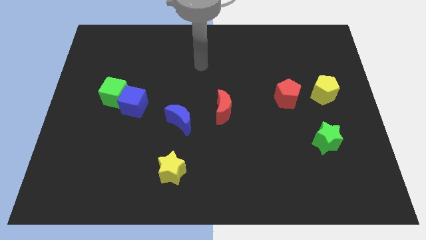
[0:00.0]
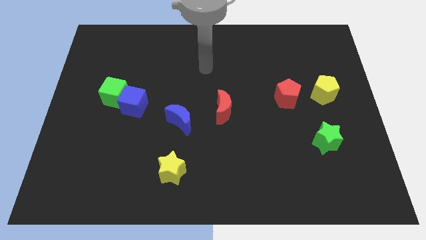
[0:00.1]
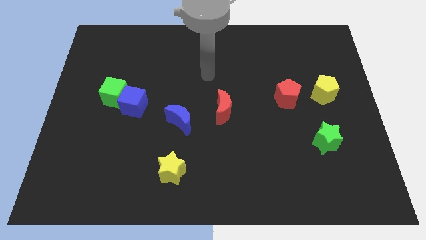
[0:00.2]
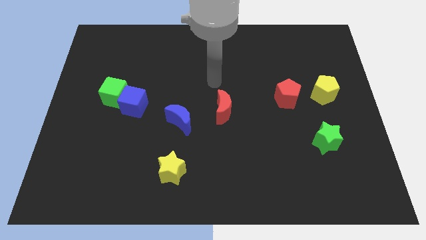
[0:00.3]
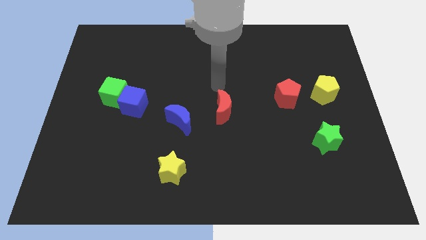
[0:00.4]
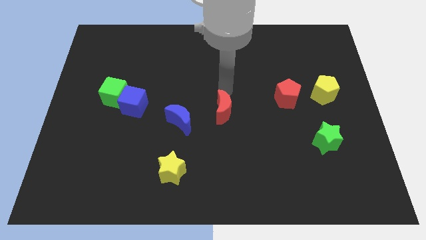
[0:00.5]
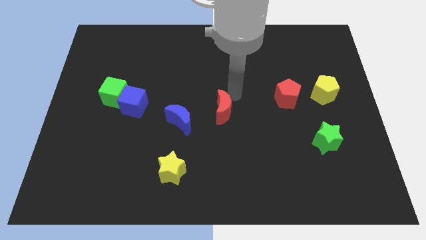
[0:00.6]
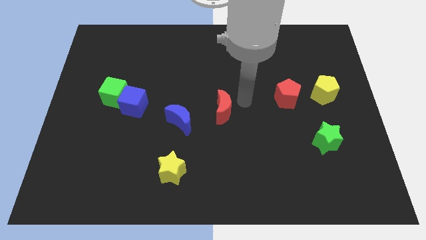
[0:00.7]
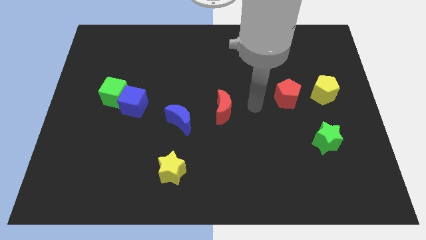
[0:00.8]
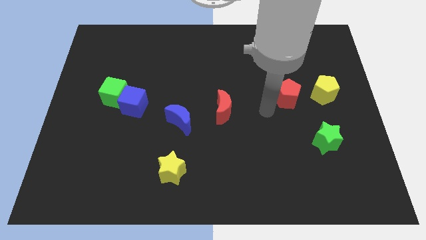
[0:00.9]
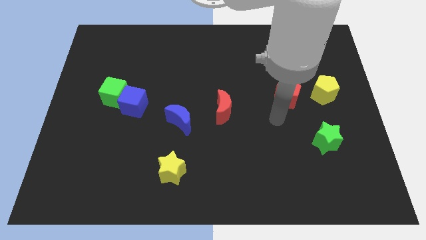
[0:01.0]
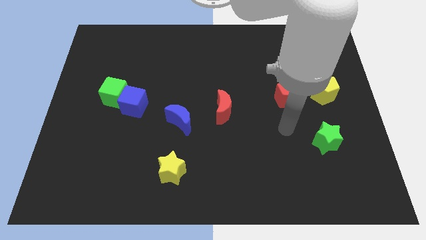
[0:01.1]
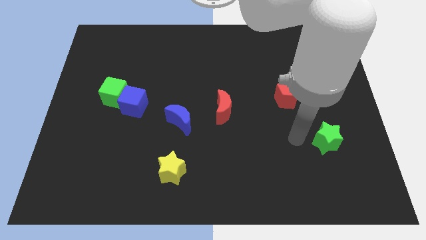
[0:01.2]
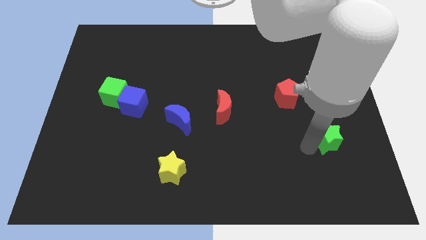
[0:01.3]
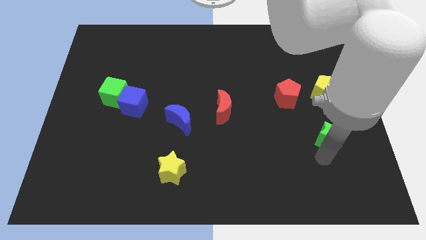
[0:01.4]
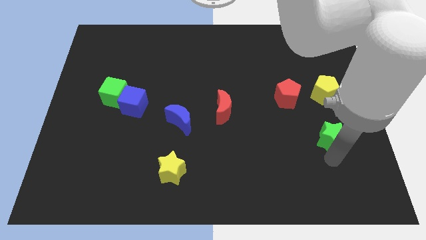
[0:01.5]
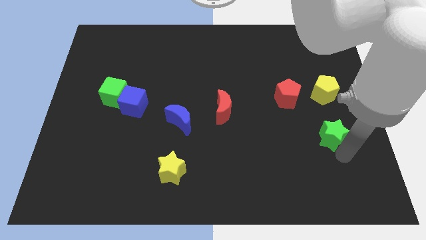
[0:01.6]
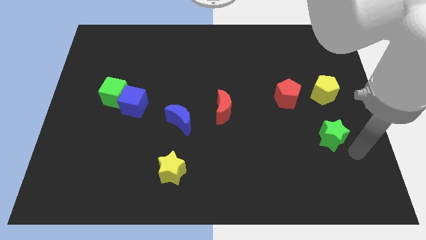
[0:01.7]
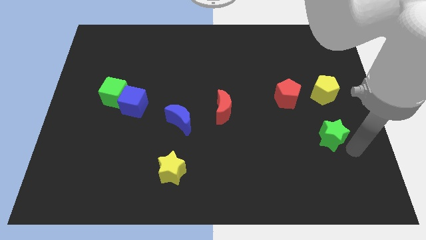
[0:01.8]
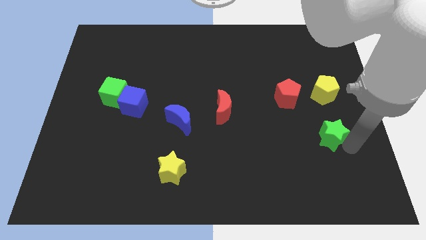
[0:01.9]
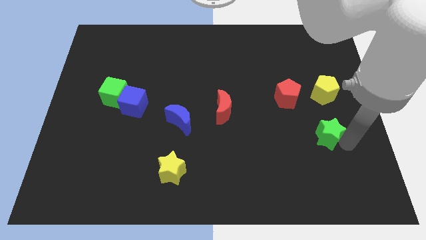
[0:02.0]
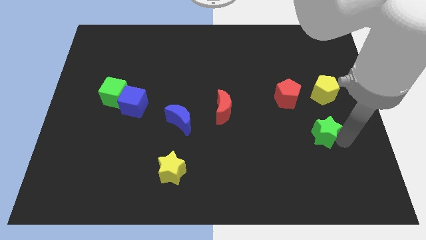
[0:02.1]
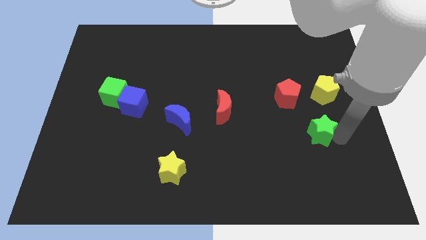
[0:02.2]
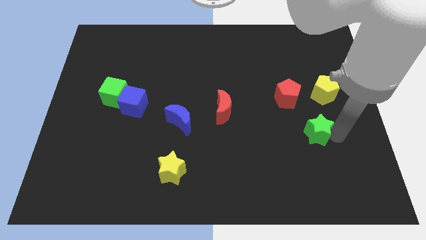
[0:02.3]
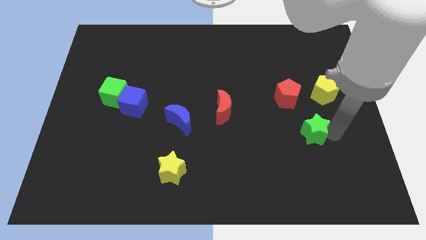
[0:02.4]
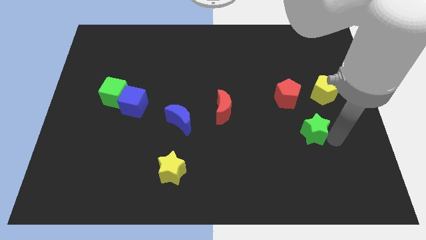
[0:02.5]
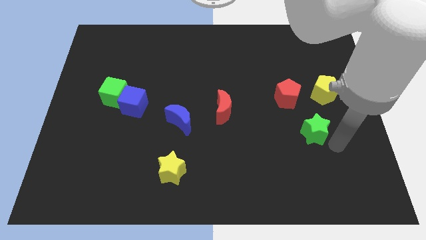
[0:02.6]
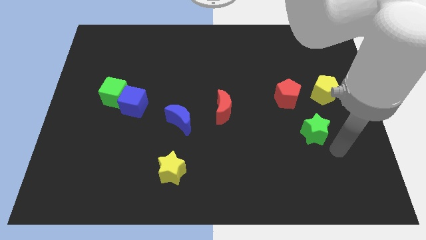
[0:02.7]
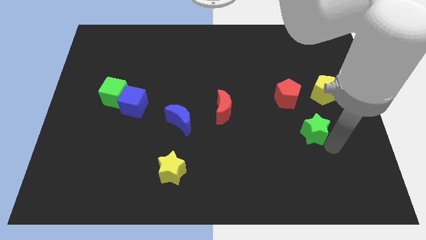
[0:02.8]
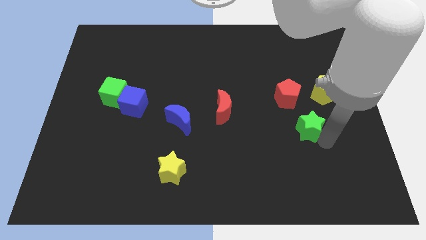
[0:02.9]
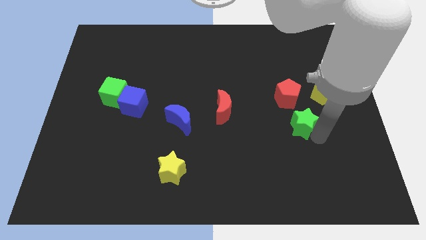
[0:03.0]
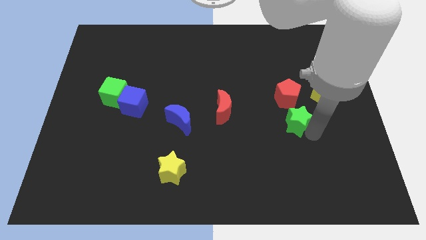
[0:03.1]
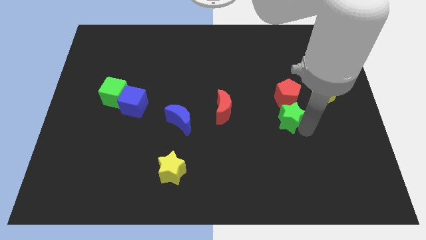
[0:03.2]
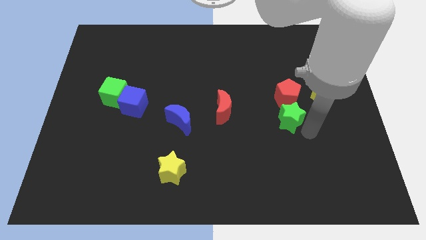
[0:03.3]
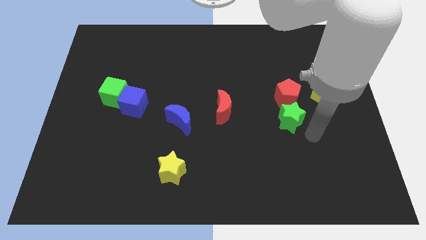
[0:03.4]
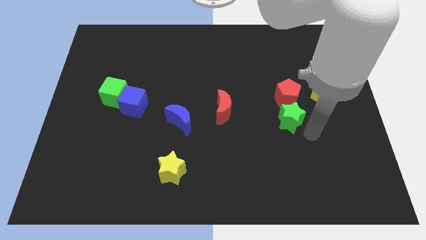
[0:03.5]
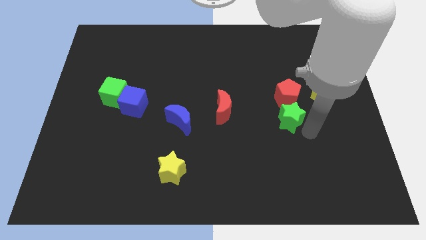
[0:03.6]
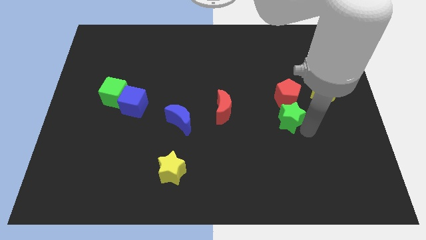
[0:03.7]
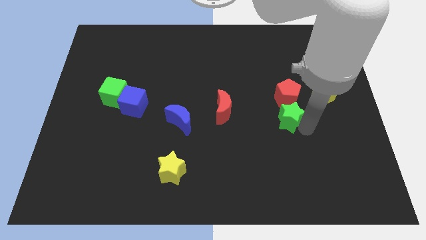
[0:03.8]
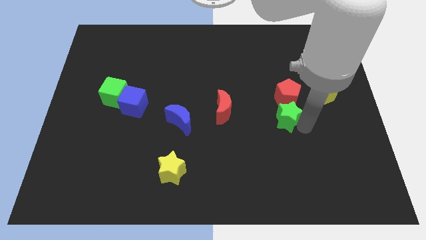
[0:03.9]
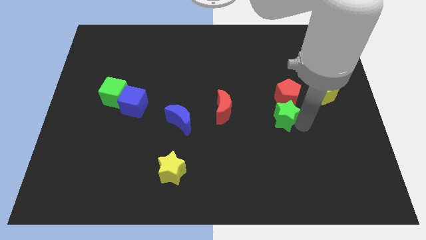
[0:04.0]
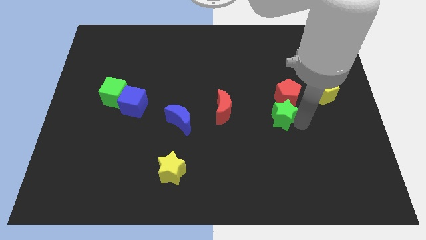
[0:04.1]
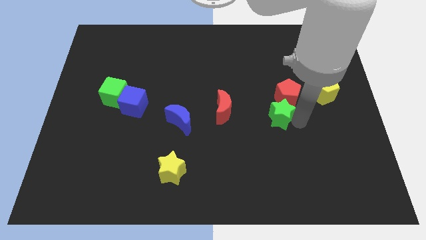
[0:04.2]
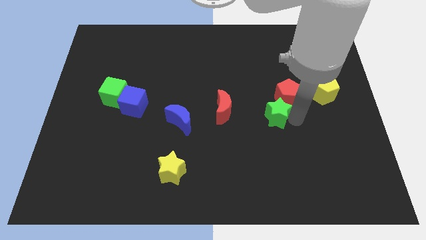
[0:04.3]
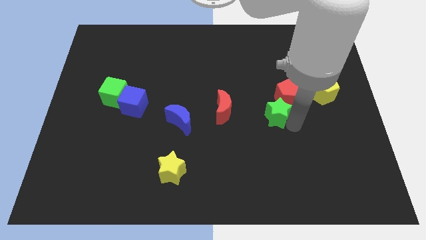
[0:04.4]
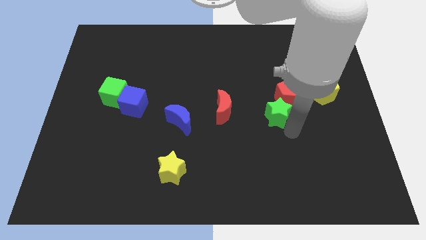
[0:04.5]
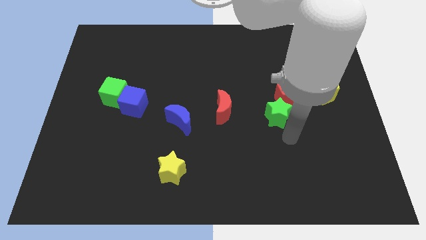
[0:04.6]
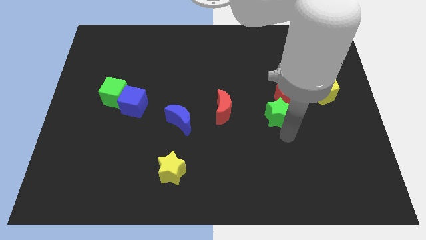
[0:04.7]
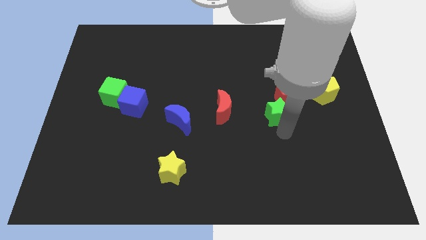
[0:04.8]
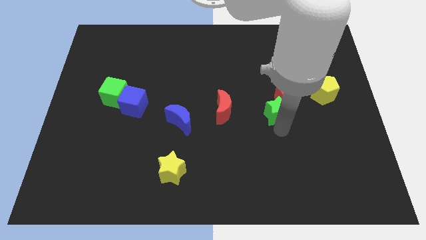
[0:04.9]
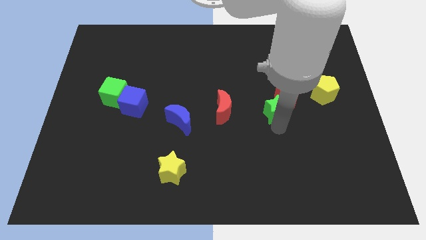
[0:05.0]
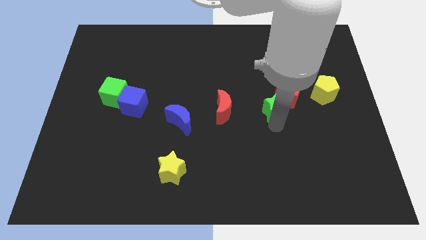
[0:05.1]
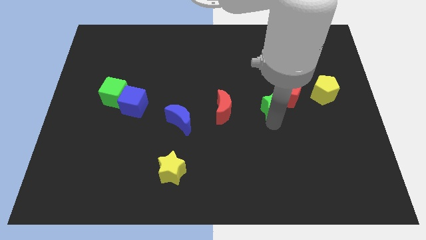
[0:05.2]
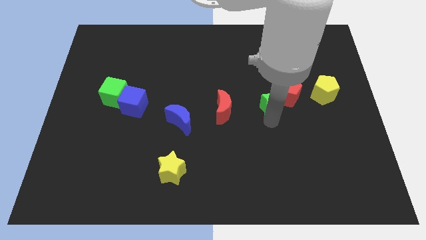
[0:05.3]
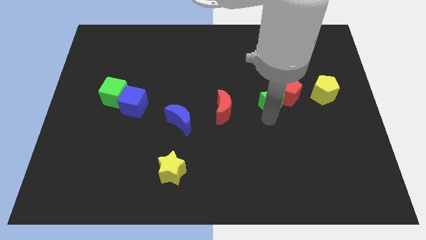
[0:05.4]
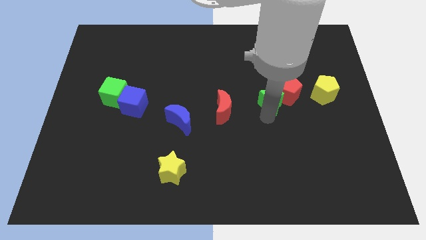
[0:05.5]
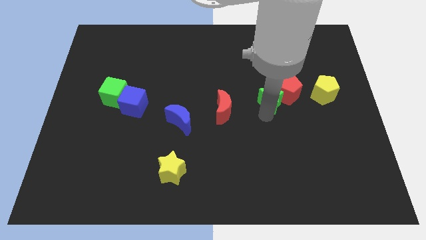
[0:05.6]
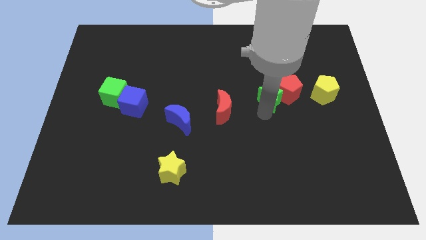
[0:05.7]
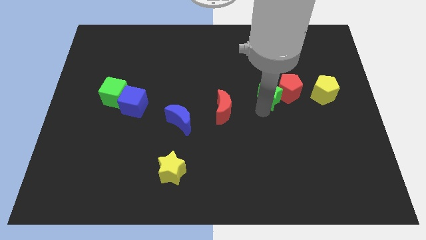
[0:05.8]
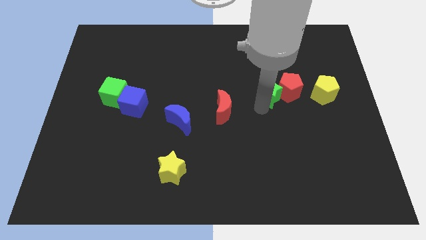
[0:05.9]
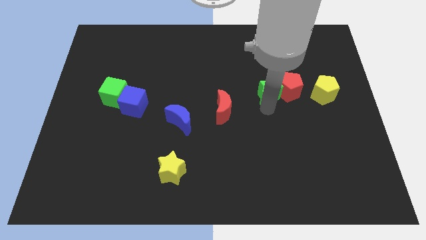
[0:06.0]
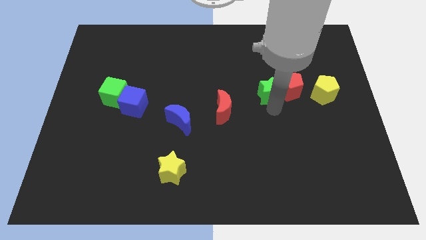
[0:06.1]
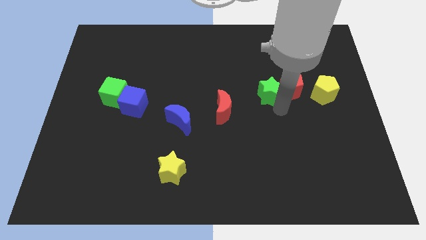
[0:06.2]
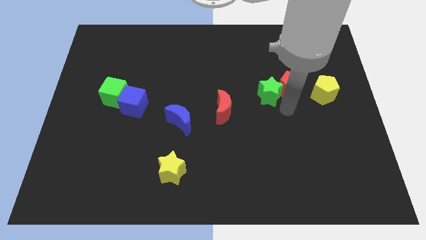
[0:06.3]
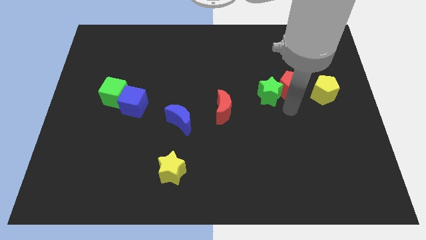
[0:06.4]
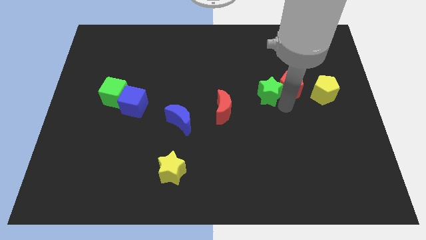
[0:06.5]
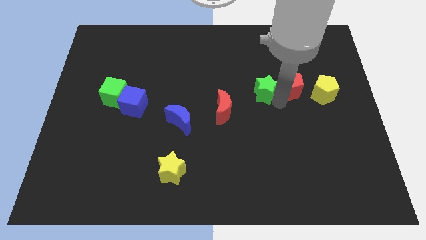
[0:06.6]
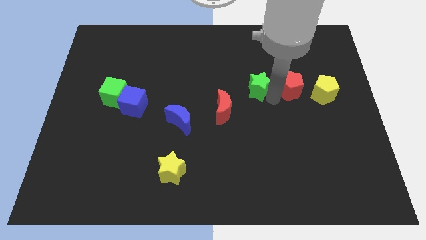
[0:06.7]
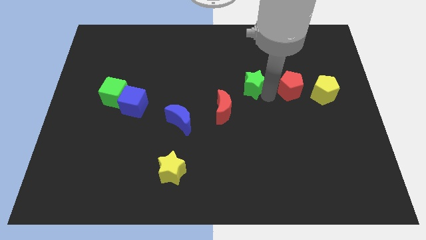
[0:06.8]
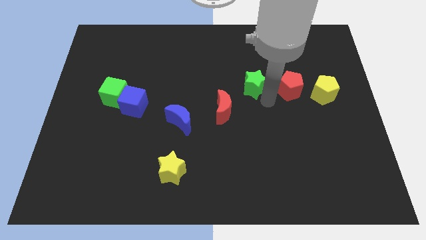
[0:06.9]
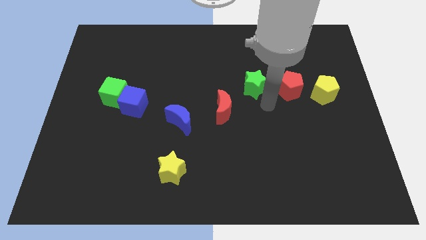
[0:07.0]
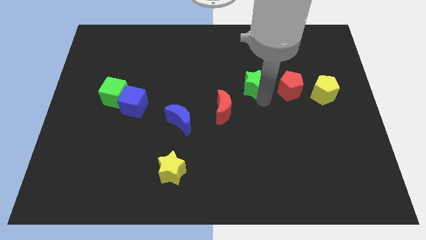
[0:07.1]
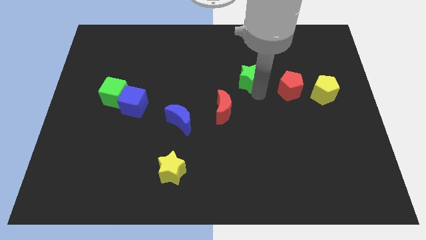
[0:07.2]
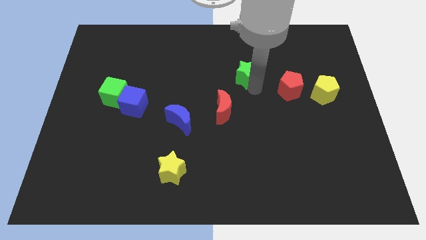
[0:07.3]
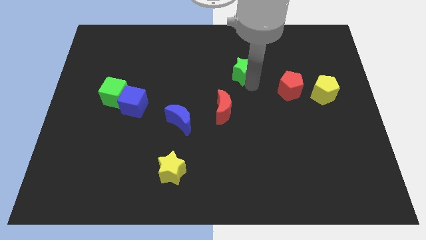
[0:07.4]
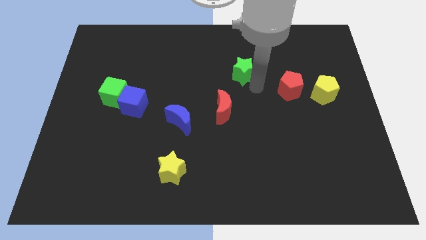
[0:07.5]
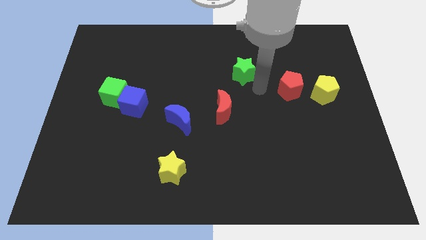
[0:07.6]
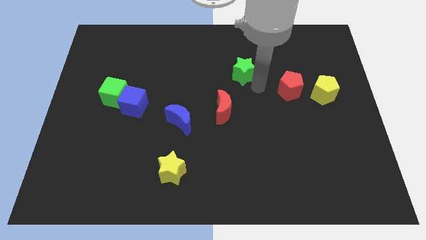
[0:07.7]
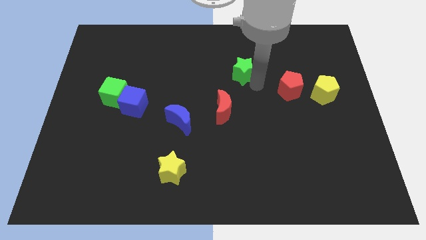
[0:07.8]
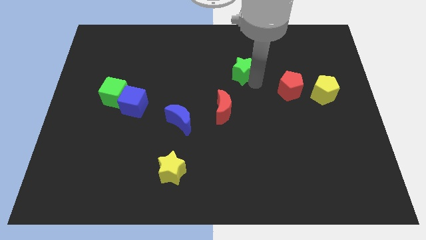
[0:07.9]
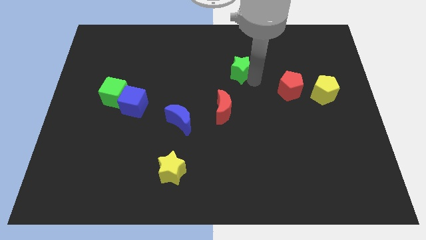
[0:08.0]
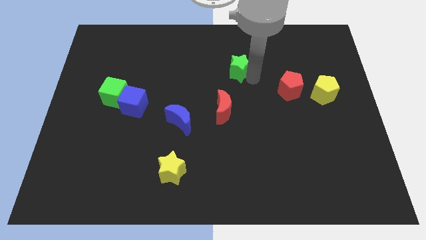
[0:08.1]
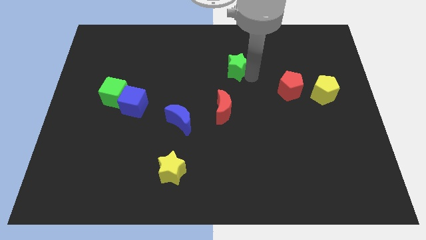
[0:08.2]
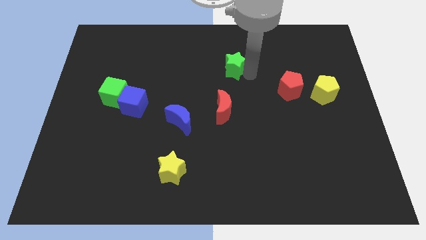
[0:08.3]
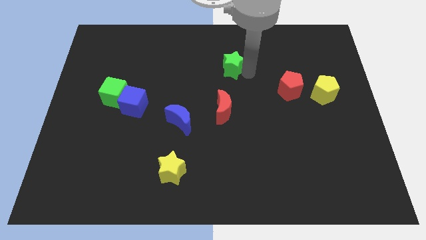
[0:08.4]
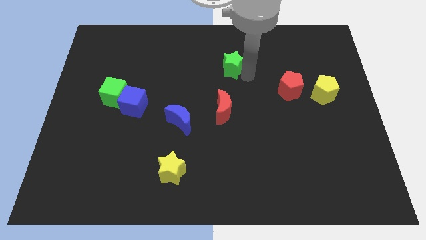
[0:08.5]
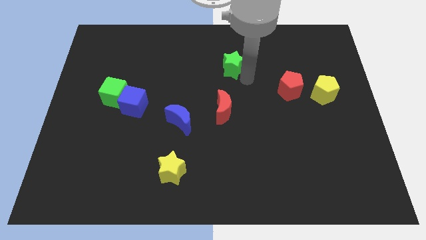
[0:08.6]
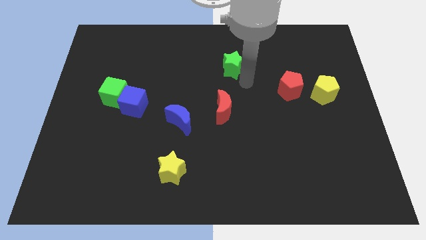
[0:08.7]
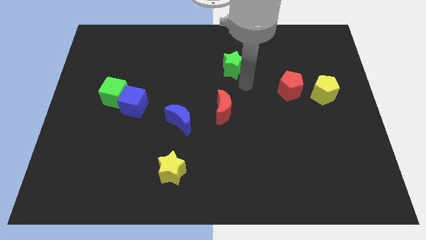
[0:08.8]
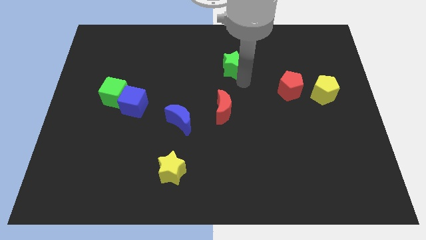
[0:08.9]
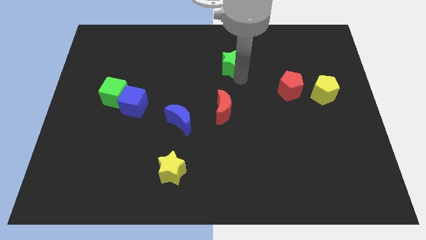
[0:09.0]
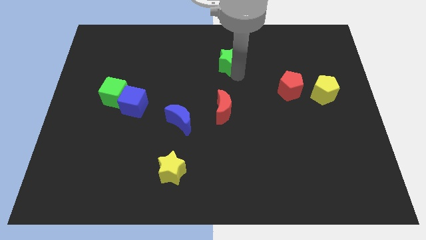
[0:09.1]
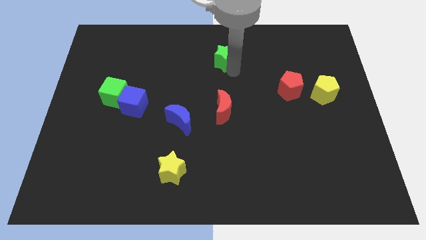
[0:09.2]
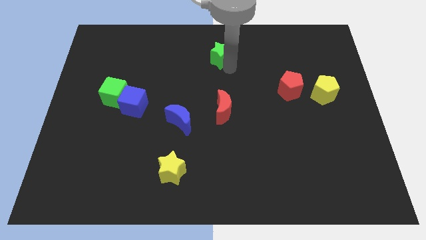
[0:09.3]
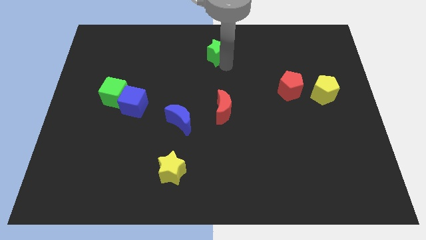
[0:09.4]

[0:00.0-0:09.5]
push the green star to the top
